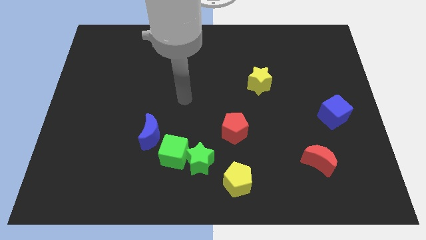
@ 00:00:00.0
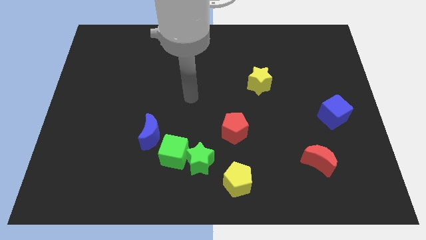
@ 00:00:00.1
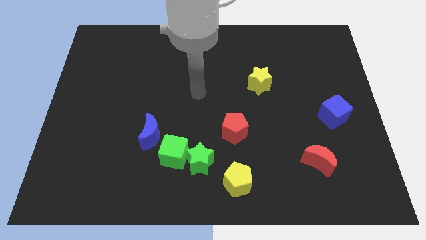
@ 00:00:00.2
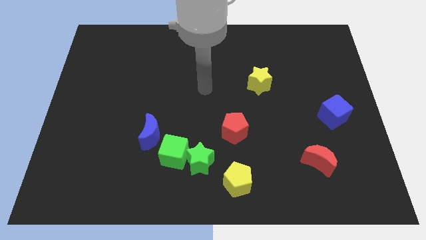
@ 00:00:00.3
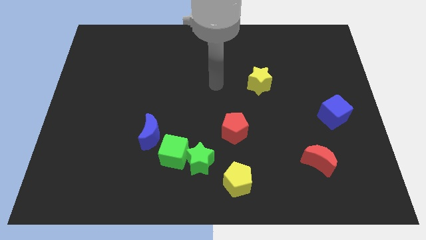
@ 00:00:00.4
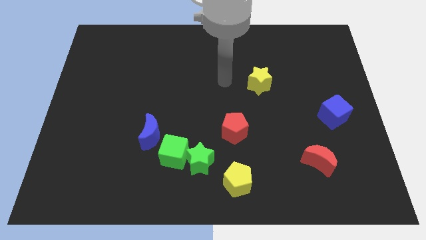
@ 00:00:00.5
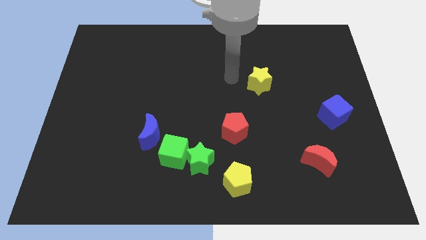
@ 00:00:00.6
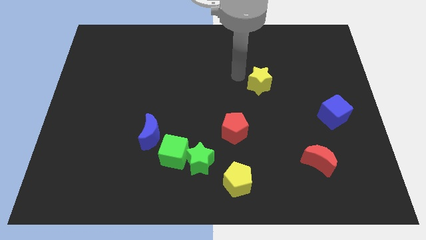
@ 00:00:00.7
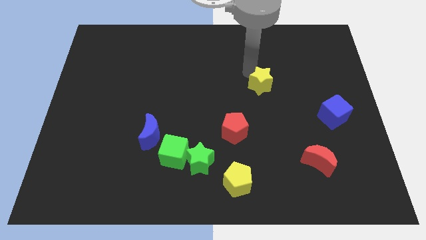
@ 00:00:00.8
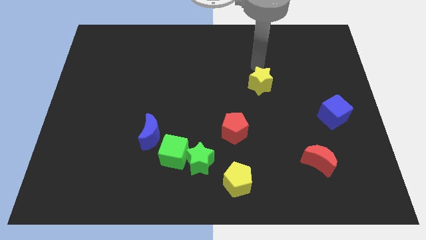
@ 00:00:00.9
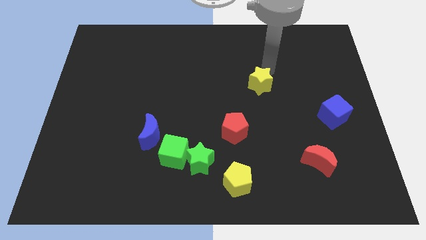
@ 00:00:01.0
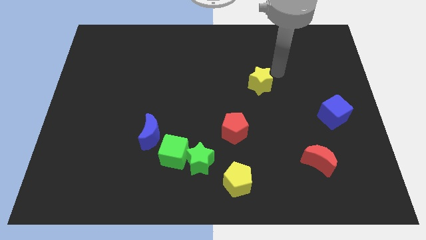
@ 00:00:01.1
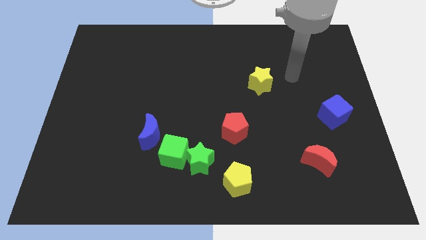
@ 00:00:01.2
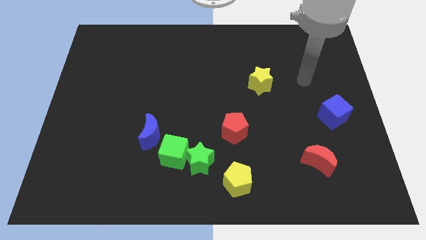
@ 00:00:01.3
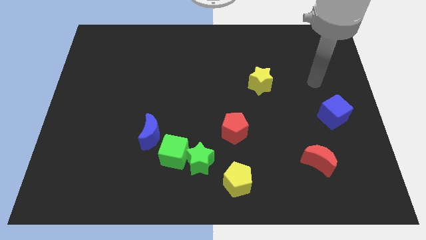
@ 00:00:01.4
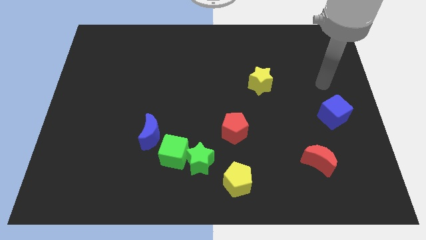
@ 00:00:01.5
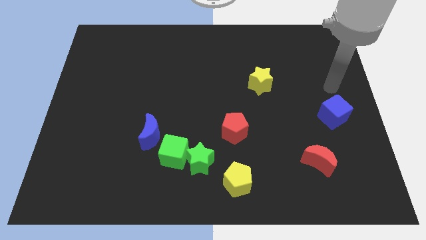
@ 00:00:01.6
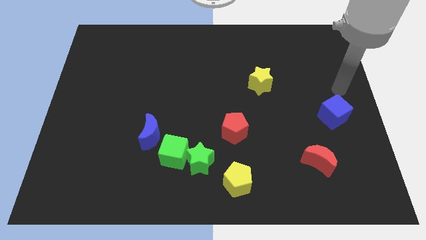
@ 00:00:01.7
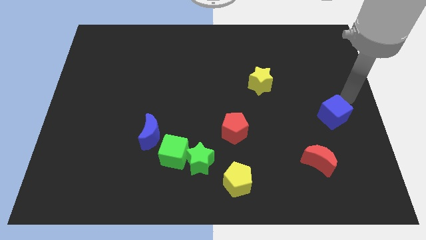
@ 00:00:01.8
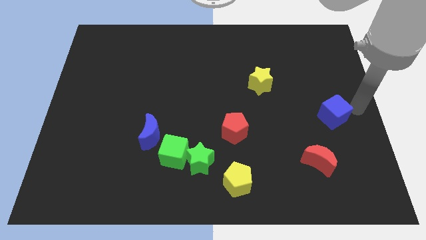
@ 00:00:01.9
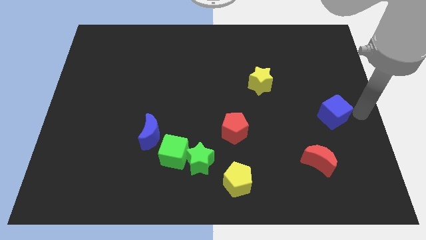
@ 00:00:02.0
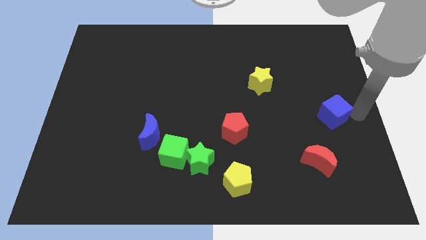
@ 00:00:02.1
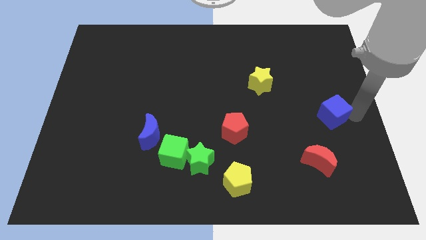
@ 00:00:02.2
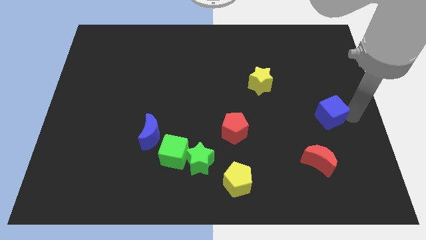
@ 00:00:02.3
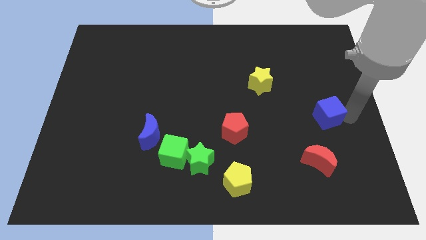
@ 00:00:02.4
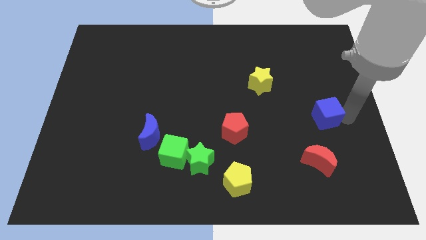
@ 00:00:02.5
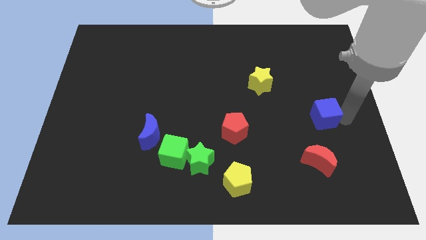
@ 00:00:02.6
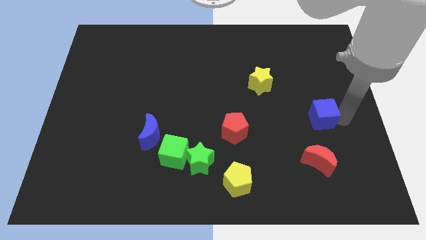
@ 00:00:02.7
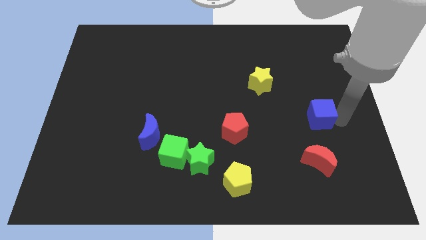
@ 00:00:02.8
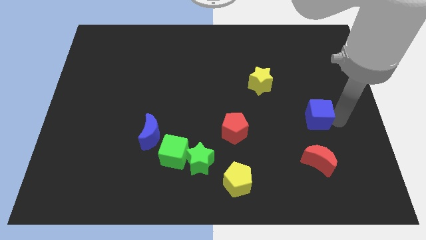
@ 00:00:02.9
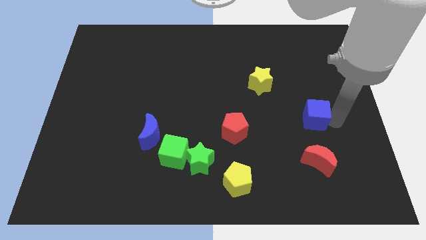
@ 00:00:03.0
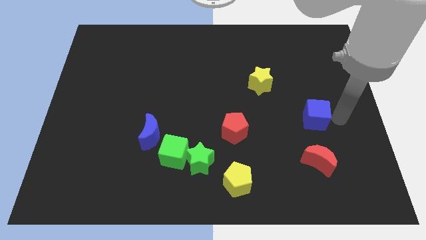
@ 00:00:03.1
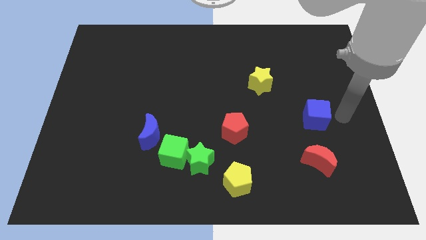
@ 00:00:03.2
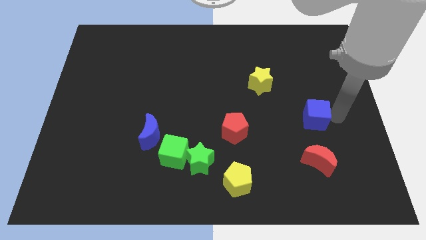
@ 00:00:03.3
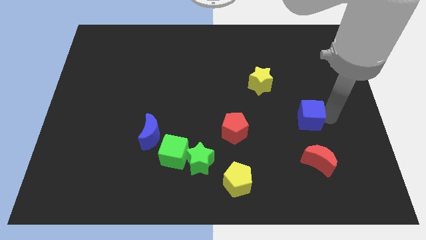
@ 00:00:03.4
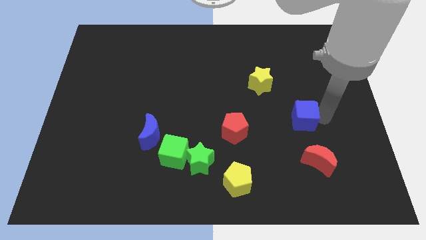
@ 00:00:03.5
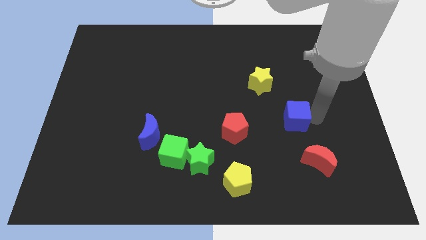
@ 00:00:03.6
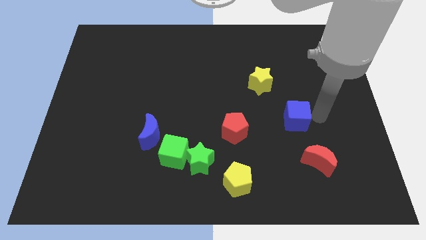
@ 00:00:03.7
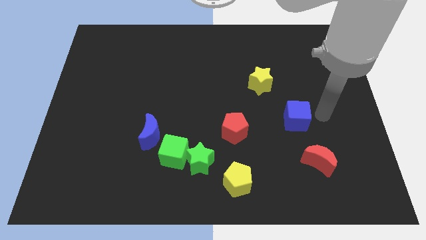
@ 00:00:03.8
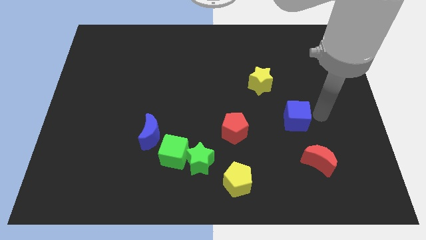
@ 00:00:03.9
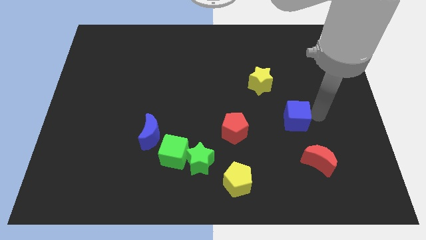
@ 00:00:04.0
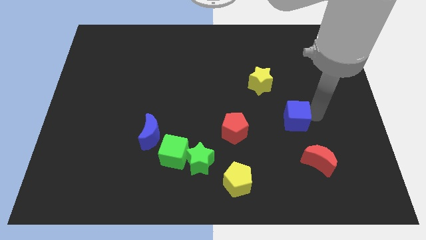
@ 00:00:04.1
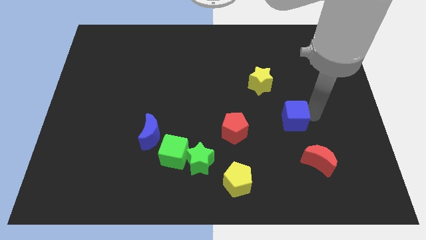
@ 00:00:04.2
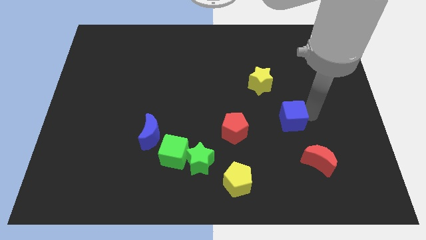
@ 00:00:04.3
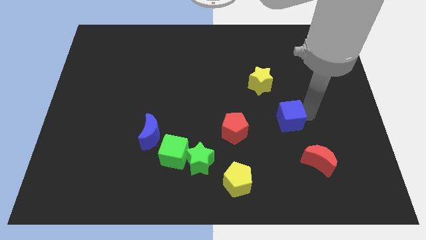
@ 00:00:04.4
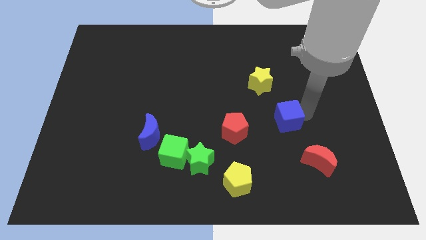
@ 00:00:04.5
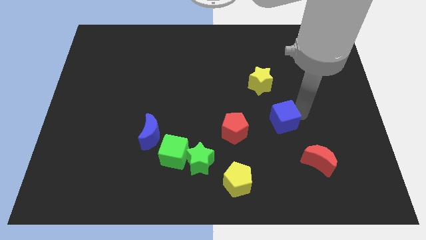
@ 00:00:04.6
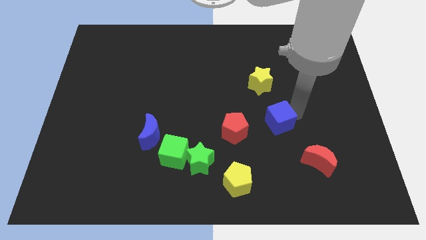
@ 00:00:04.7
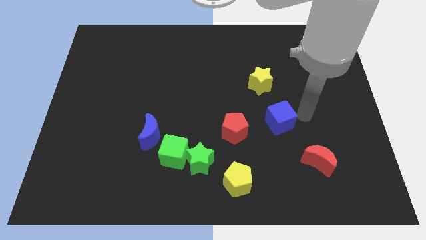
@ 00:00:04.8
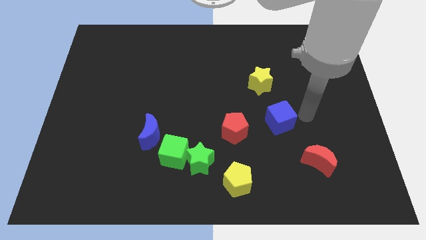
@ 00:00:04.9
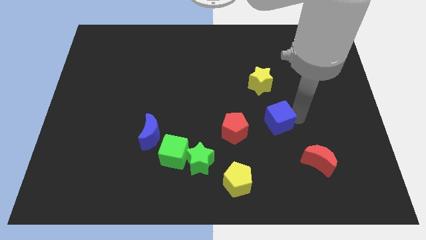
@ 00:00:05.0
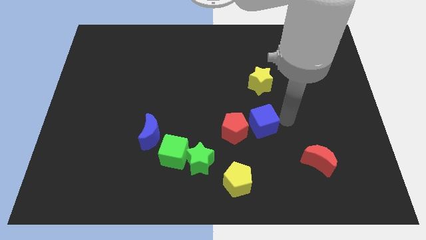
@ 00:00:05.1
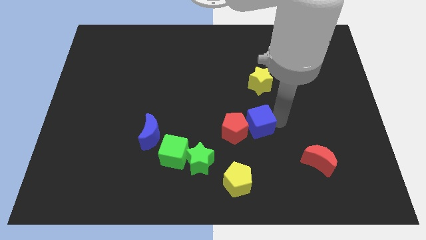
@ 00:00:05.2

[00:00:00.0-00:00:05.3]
put the blue cube close to the red pentagon

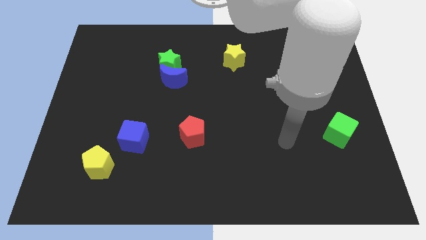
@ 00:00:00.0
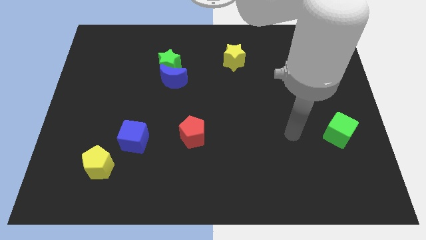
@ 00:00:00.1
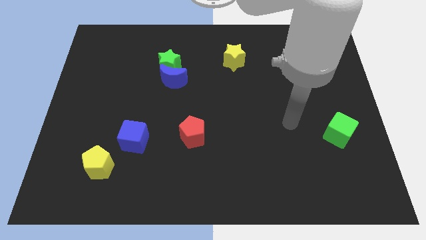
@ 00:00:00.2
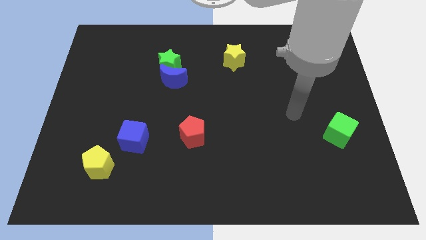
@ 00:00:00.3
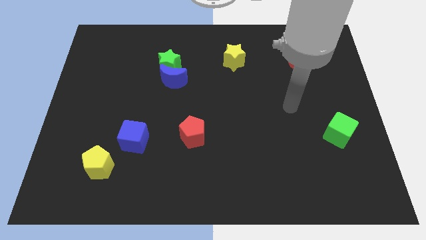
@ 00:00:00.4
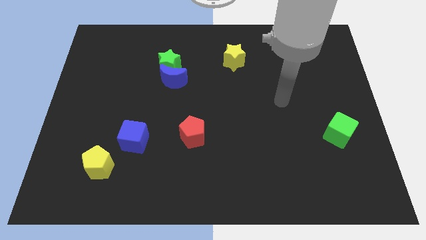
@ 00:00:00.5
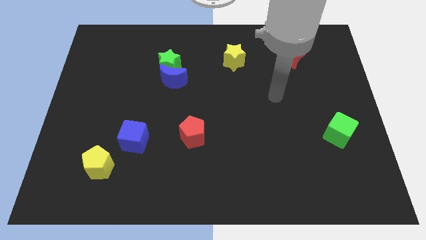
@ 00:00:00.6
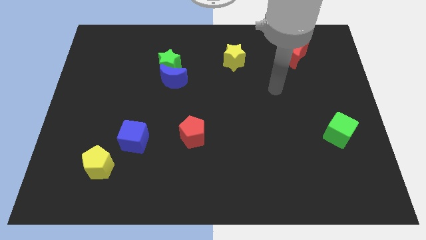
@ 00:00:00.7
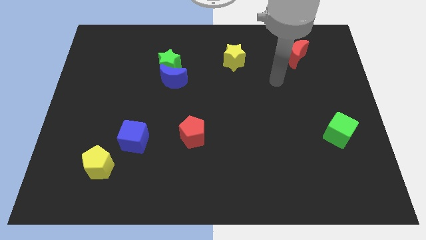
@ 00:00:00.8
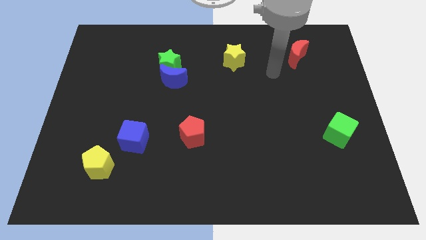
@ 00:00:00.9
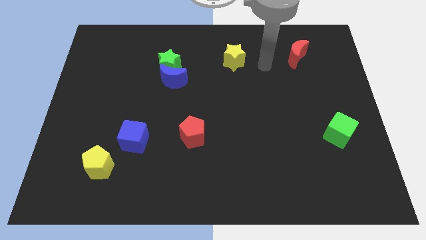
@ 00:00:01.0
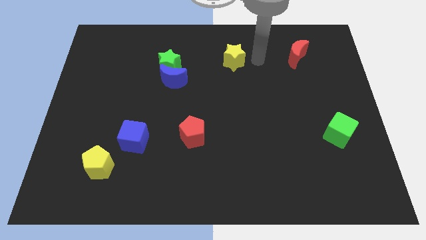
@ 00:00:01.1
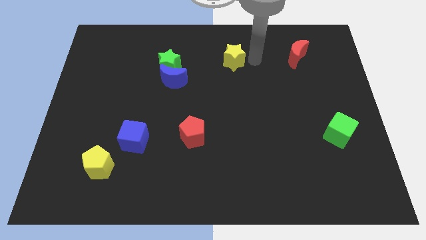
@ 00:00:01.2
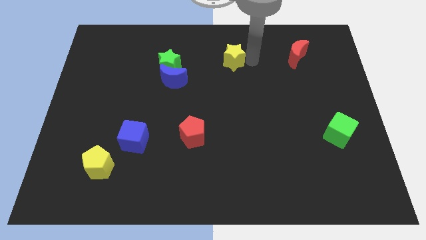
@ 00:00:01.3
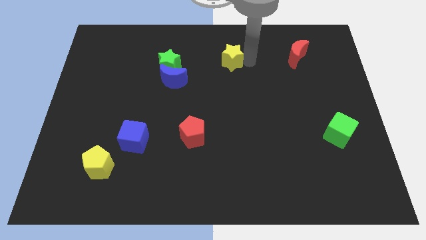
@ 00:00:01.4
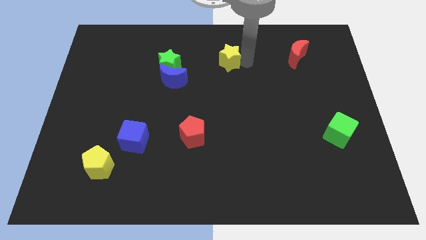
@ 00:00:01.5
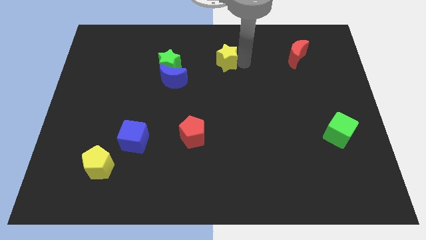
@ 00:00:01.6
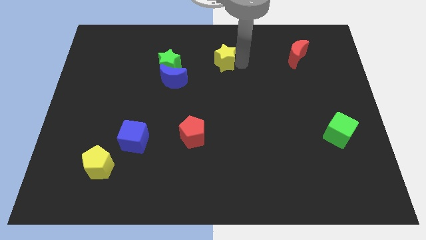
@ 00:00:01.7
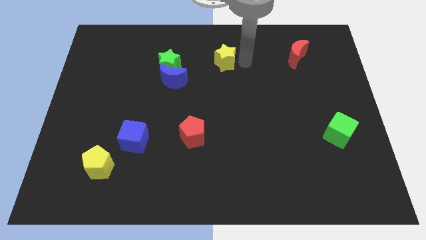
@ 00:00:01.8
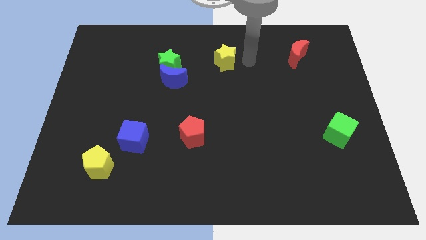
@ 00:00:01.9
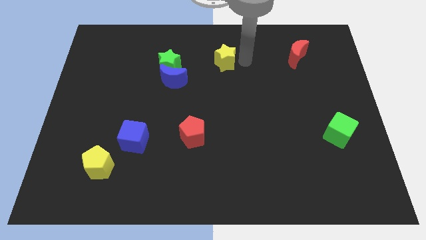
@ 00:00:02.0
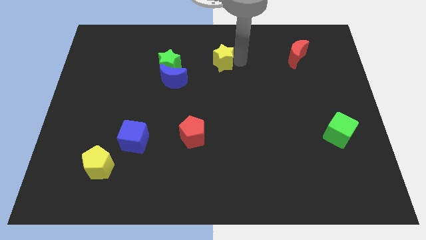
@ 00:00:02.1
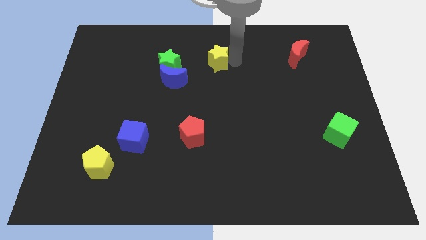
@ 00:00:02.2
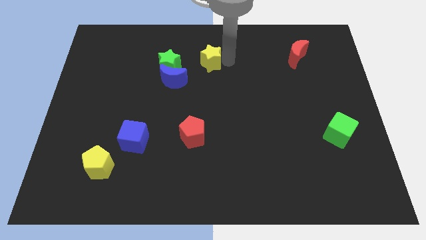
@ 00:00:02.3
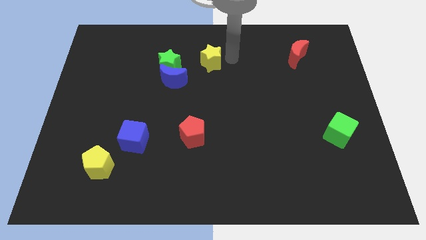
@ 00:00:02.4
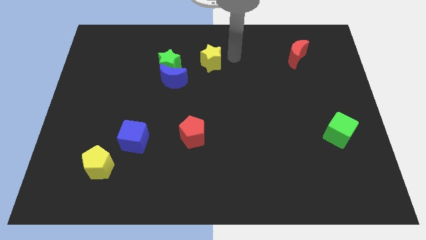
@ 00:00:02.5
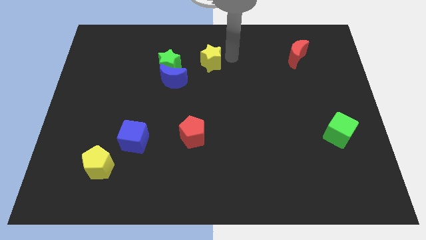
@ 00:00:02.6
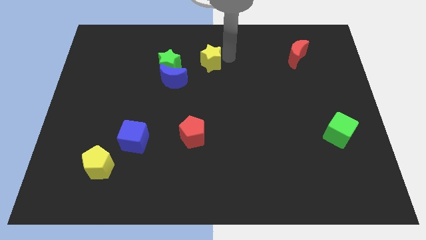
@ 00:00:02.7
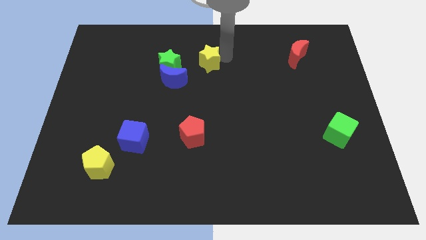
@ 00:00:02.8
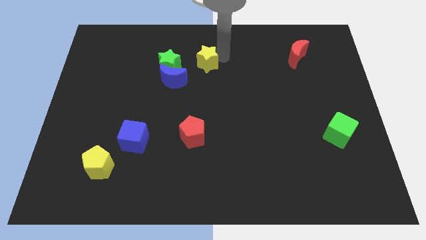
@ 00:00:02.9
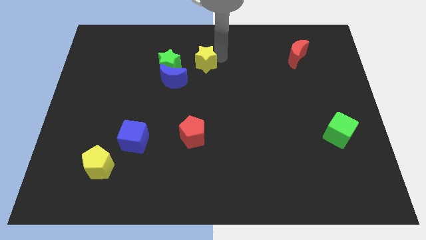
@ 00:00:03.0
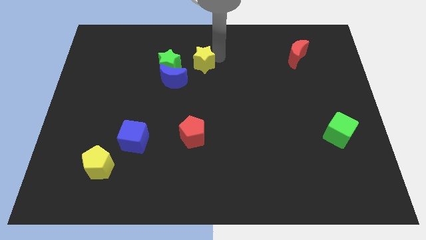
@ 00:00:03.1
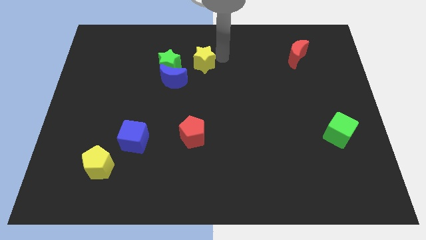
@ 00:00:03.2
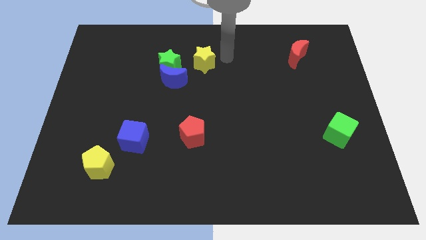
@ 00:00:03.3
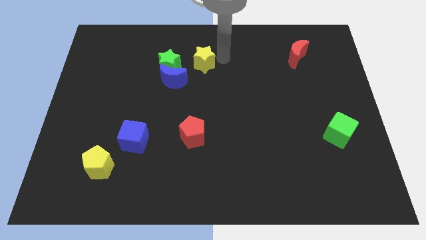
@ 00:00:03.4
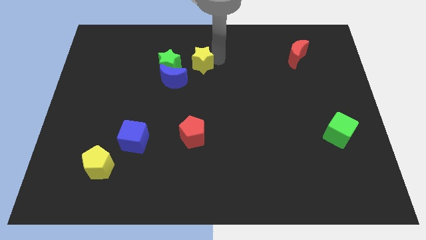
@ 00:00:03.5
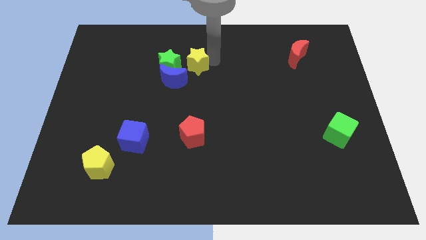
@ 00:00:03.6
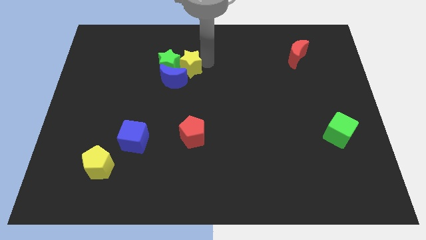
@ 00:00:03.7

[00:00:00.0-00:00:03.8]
slide the yellow star next to the green star
